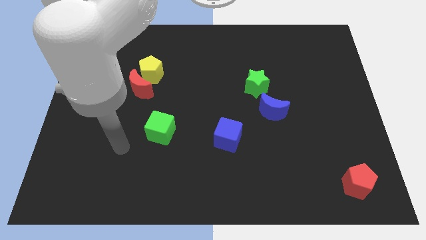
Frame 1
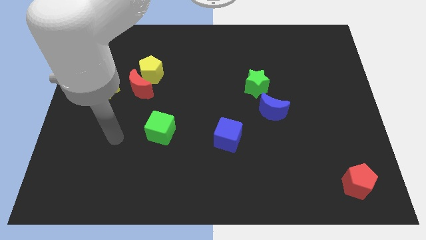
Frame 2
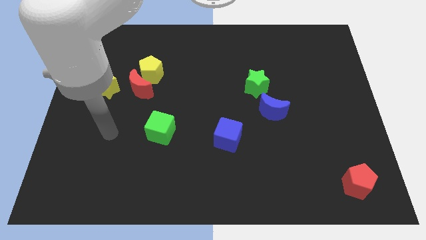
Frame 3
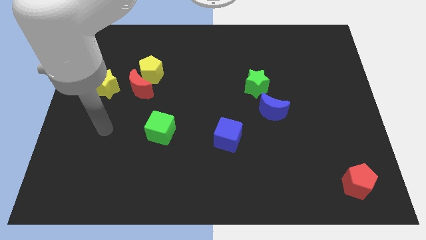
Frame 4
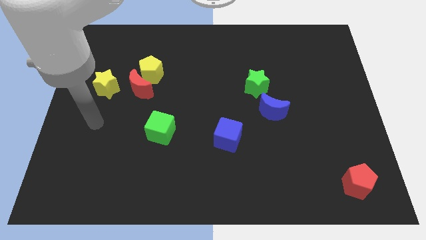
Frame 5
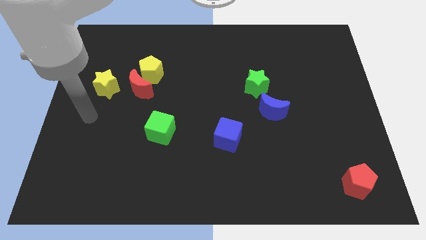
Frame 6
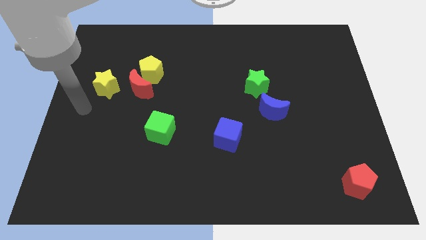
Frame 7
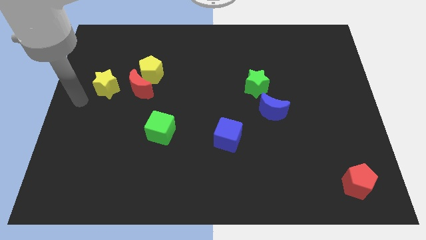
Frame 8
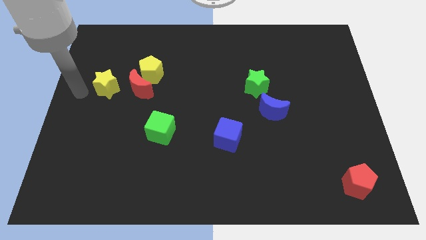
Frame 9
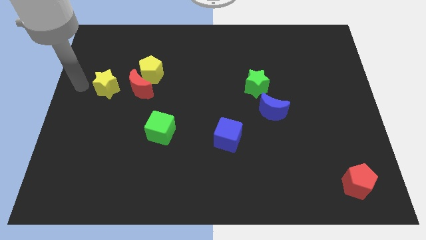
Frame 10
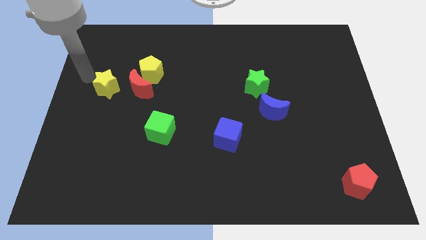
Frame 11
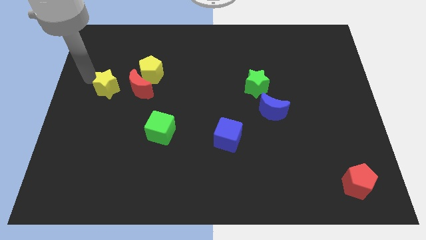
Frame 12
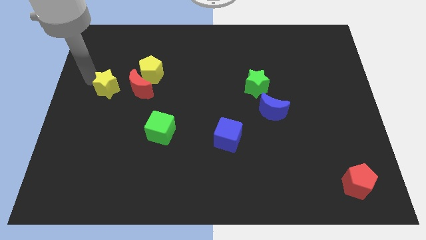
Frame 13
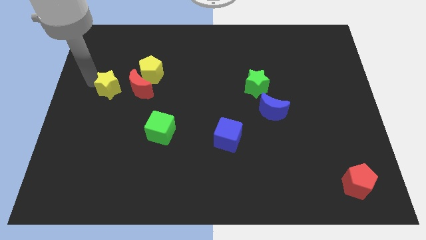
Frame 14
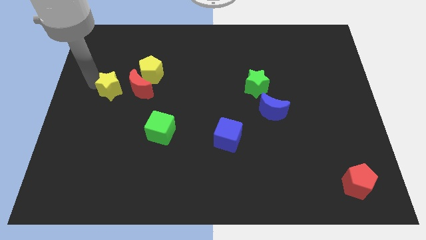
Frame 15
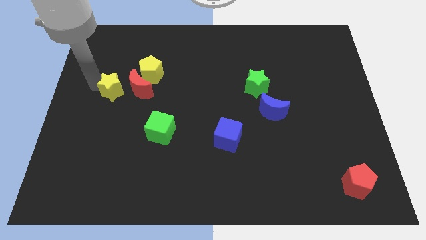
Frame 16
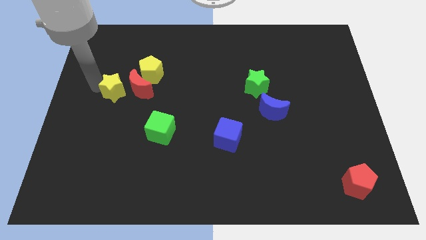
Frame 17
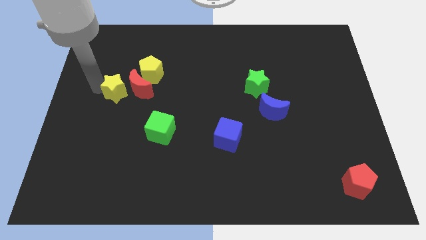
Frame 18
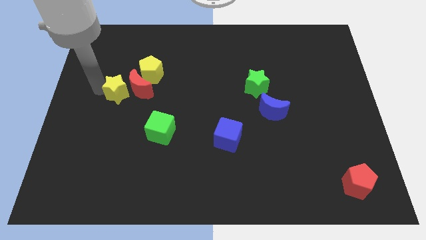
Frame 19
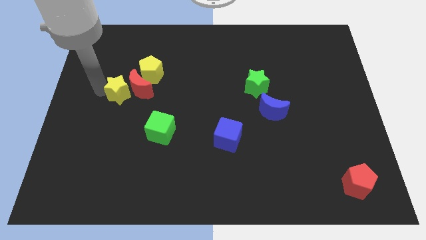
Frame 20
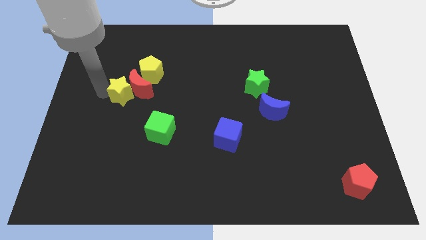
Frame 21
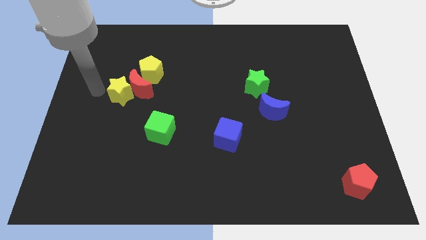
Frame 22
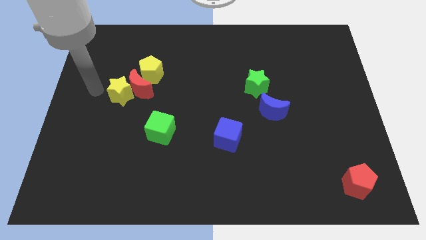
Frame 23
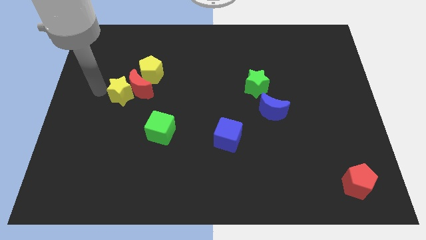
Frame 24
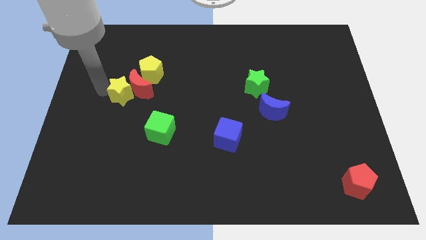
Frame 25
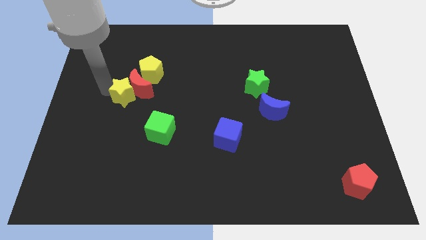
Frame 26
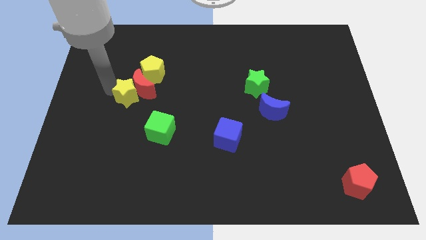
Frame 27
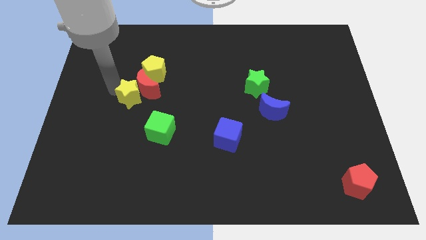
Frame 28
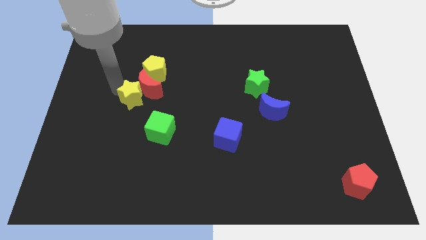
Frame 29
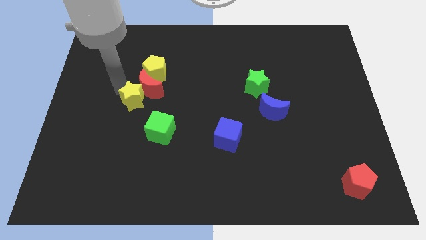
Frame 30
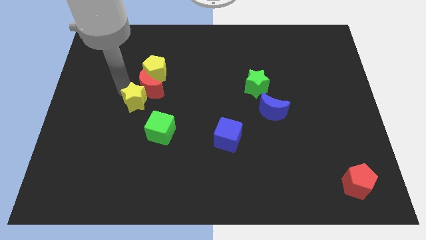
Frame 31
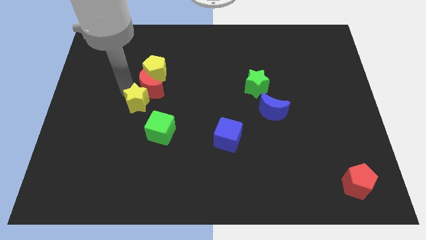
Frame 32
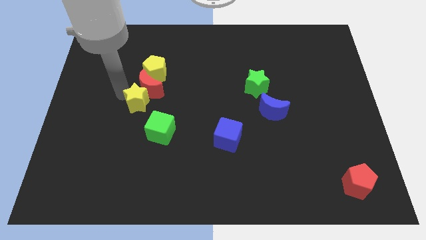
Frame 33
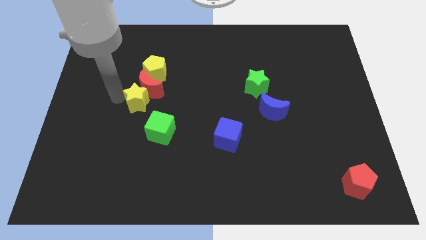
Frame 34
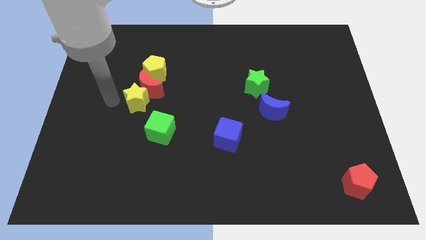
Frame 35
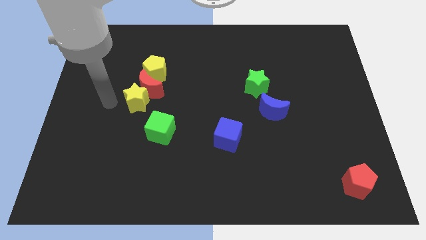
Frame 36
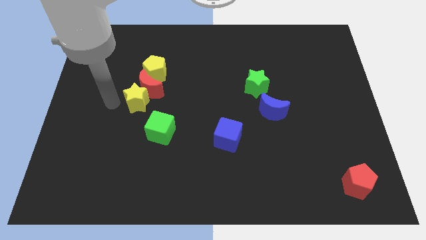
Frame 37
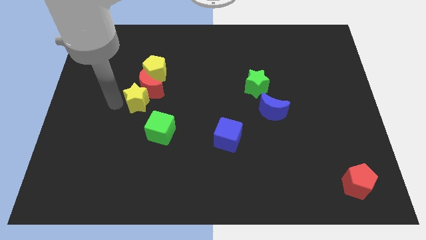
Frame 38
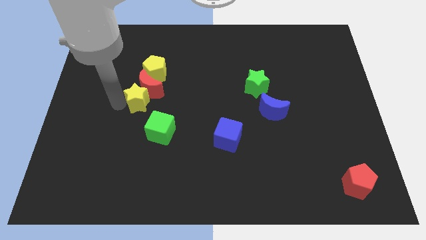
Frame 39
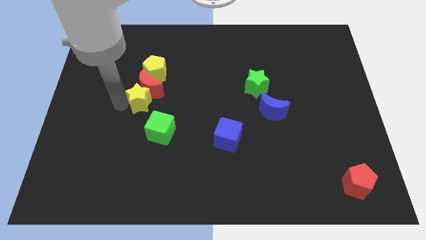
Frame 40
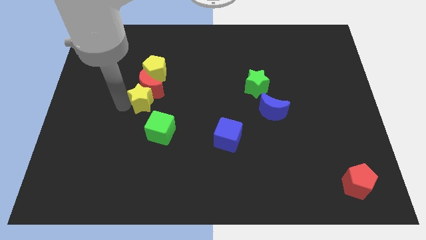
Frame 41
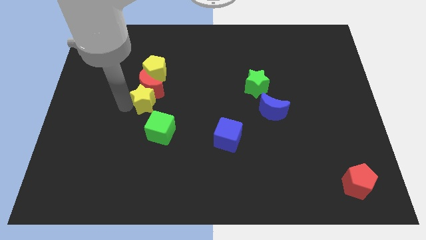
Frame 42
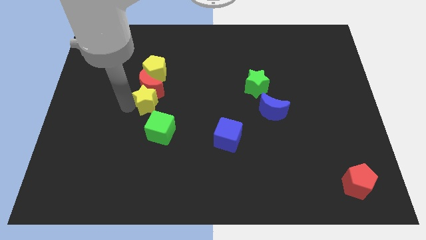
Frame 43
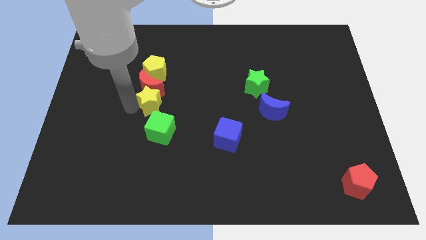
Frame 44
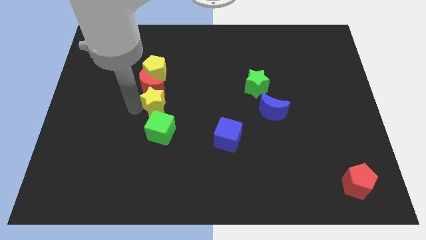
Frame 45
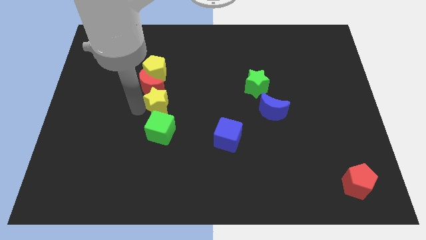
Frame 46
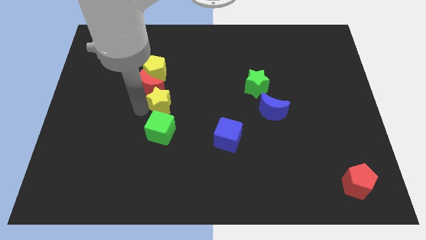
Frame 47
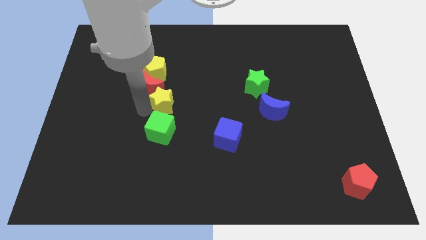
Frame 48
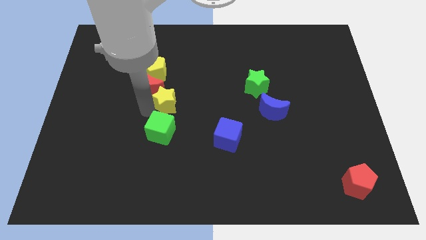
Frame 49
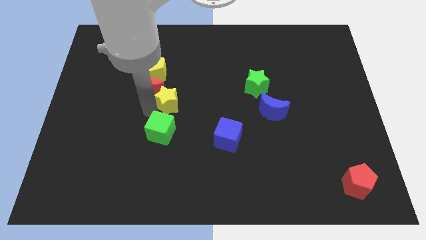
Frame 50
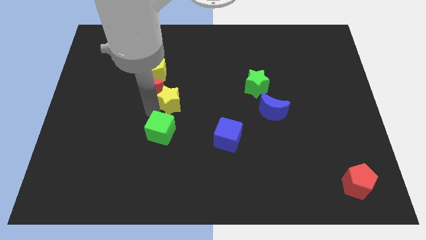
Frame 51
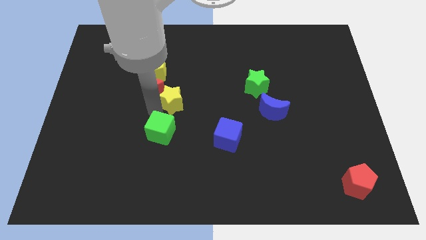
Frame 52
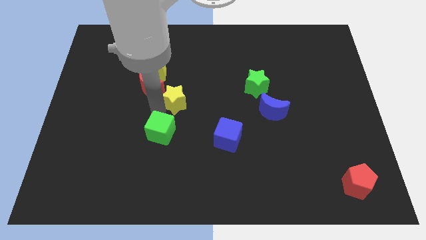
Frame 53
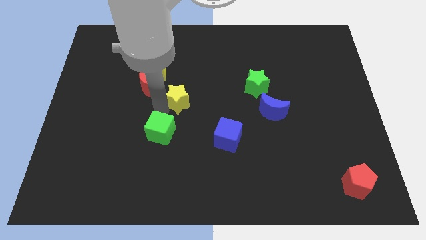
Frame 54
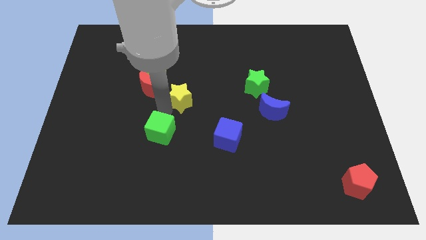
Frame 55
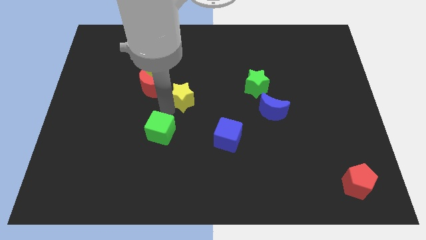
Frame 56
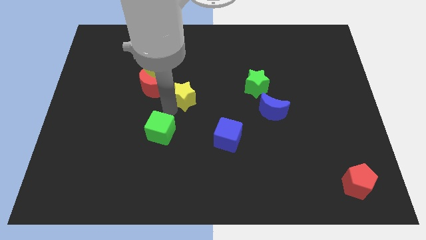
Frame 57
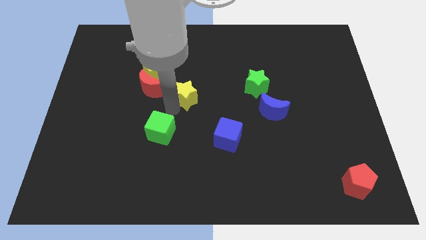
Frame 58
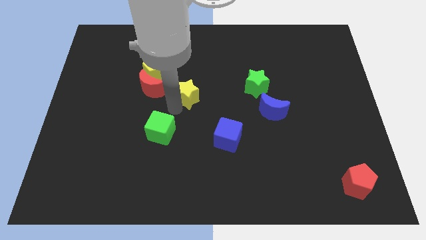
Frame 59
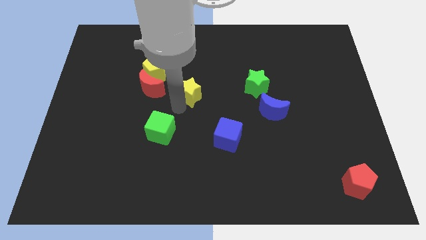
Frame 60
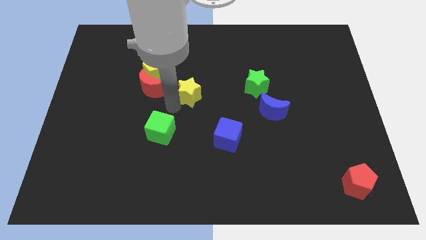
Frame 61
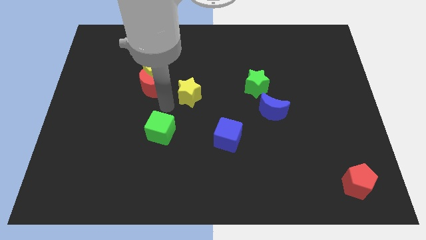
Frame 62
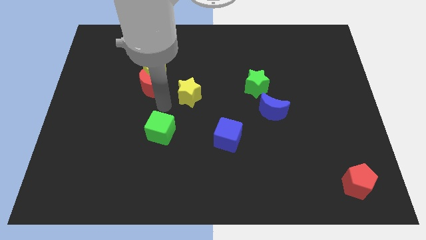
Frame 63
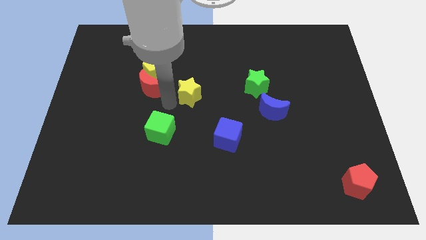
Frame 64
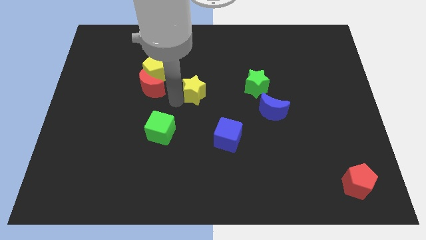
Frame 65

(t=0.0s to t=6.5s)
put the yellow star to the left side of the green star

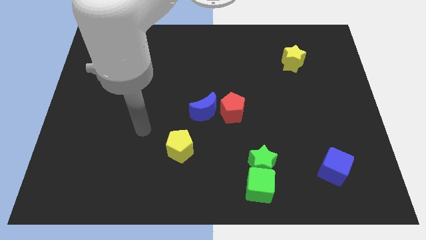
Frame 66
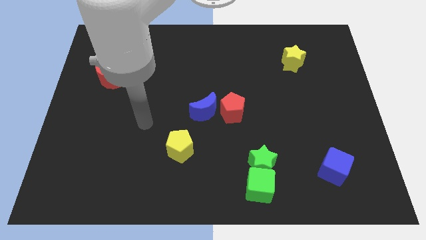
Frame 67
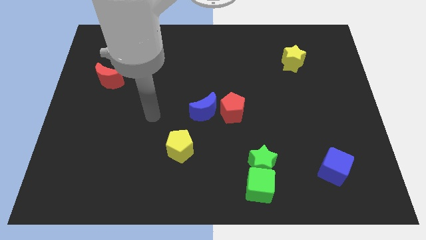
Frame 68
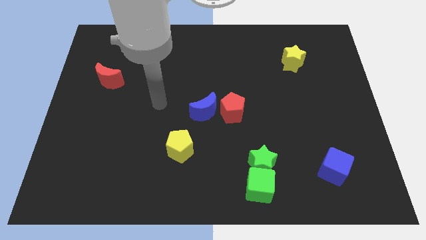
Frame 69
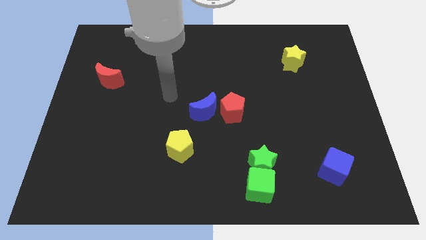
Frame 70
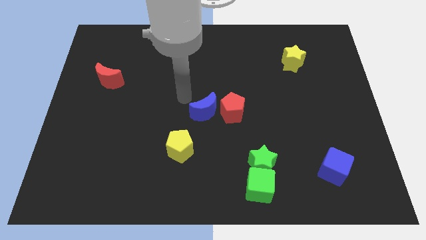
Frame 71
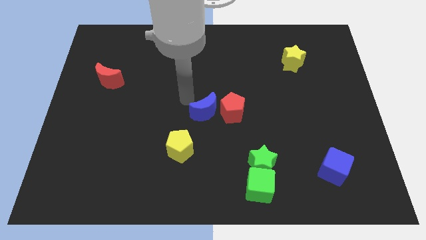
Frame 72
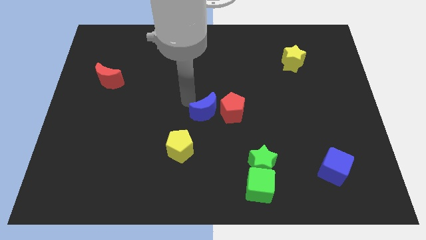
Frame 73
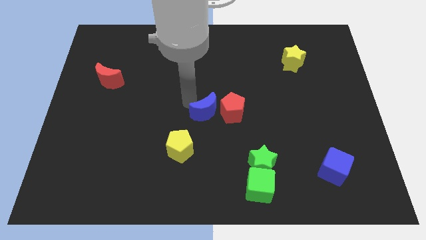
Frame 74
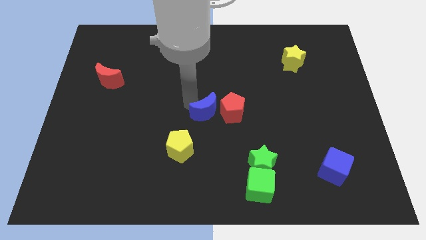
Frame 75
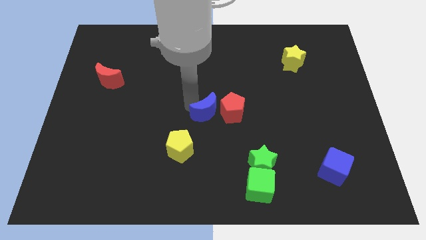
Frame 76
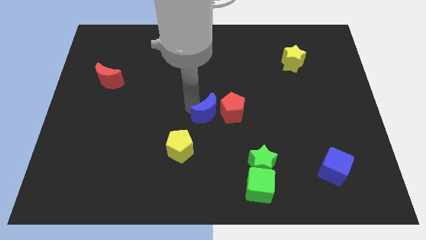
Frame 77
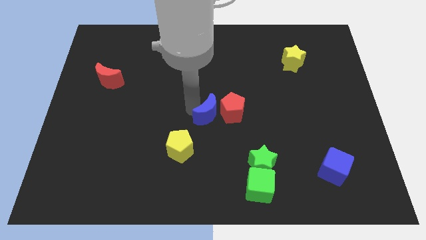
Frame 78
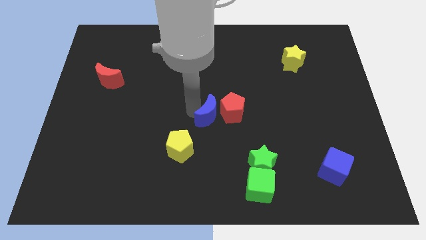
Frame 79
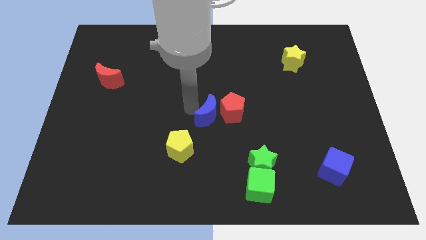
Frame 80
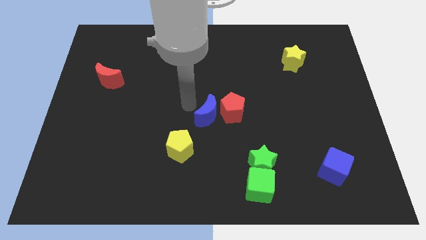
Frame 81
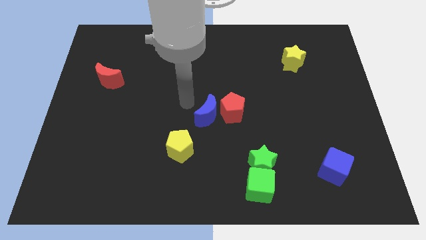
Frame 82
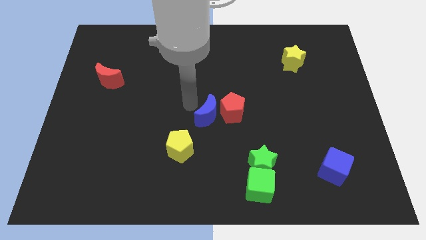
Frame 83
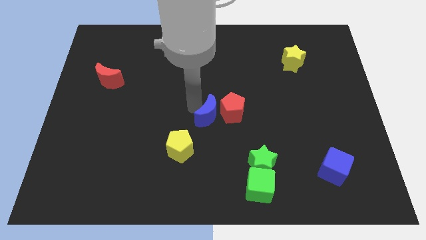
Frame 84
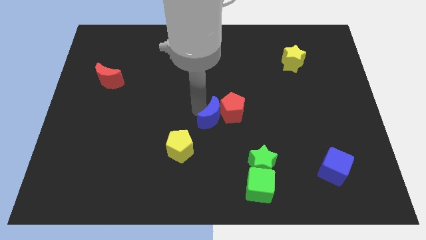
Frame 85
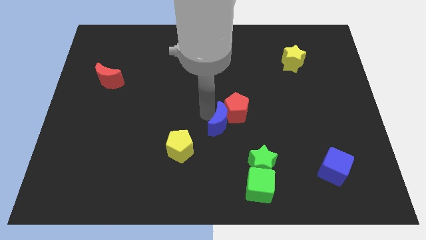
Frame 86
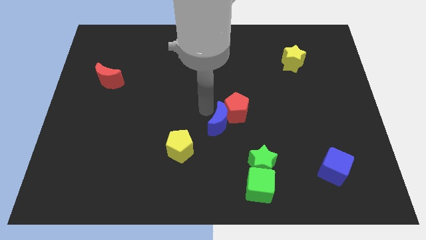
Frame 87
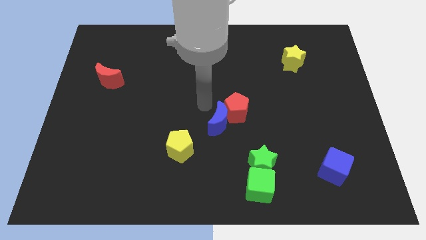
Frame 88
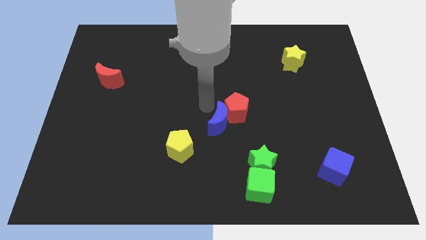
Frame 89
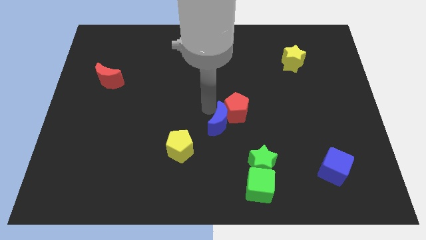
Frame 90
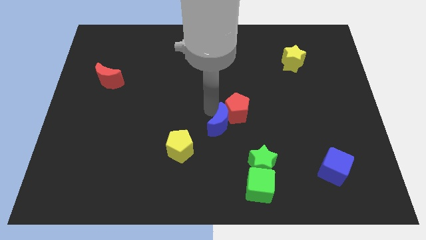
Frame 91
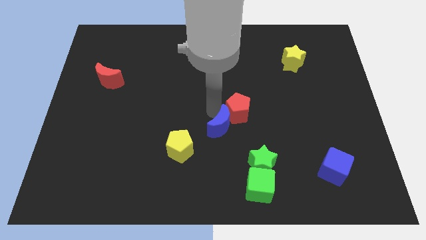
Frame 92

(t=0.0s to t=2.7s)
move the blue moon diagonally up and to the left of the green star
